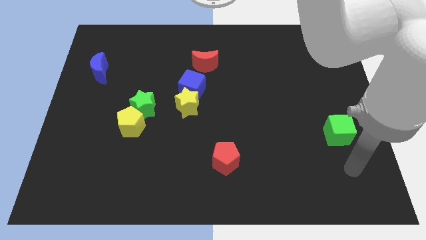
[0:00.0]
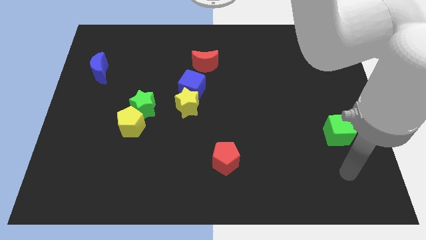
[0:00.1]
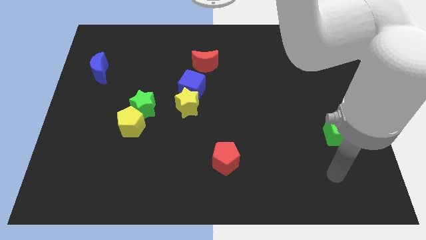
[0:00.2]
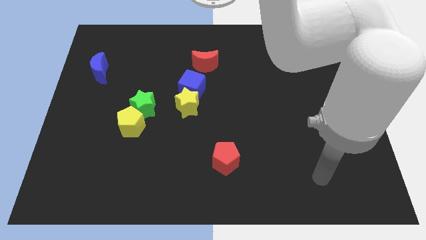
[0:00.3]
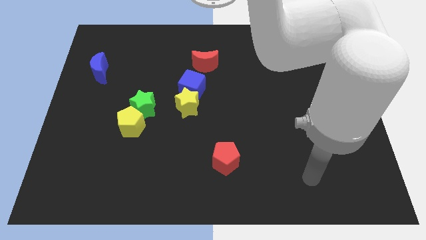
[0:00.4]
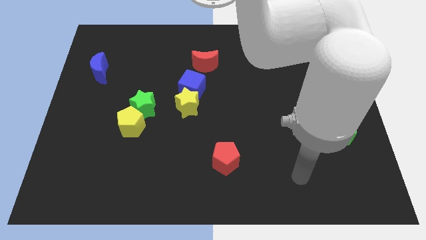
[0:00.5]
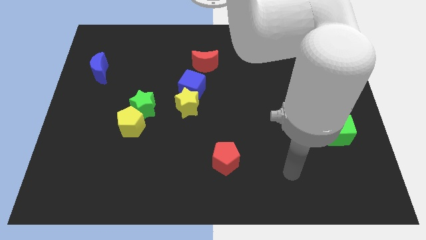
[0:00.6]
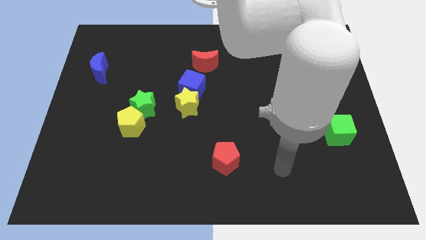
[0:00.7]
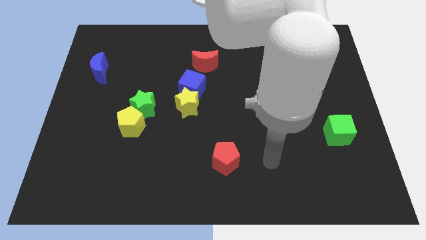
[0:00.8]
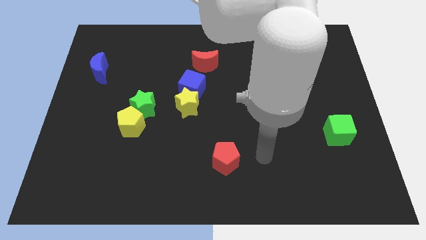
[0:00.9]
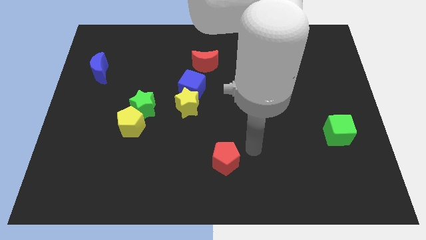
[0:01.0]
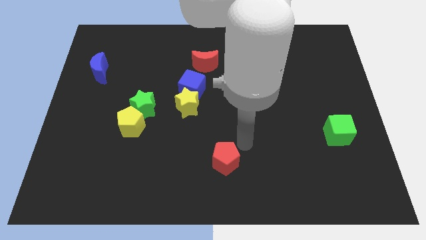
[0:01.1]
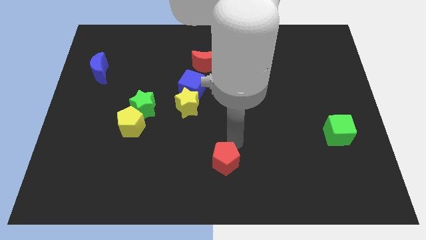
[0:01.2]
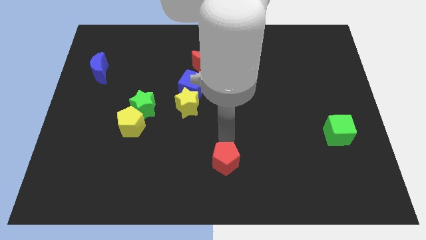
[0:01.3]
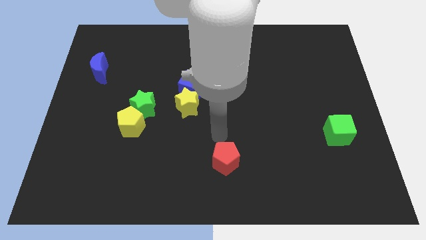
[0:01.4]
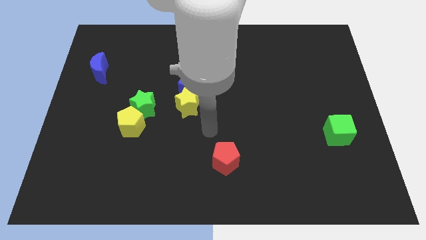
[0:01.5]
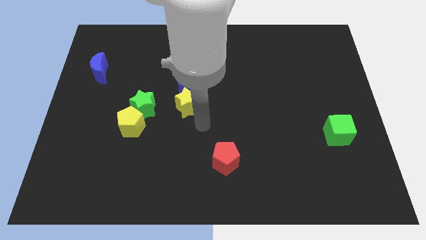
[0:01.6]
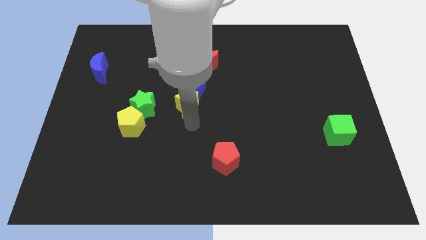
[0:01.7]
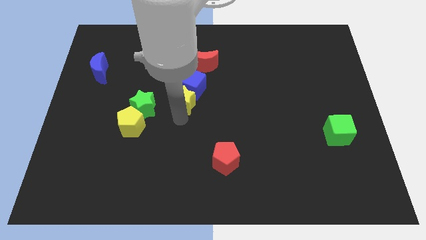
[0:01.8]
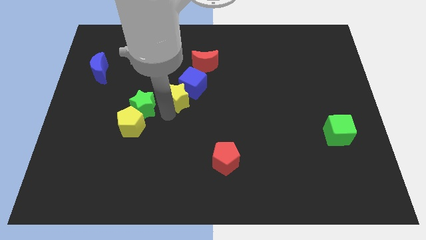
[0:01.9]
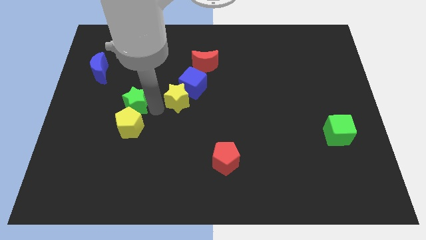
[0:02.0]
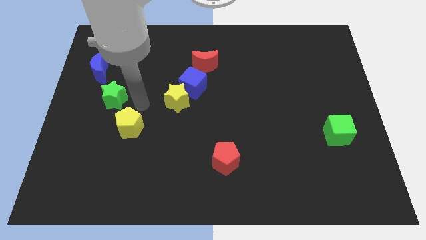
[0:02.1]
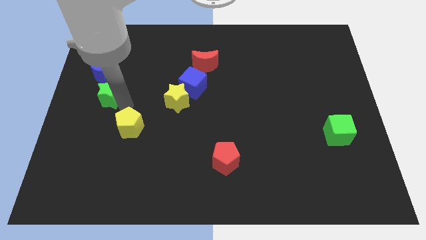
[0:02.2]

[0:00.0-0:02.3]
pull the yellow pentagon apart from the green star

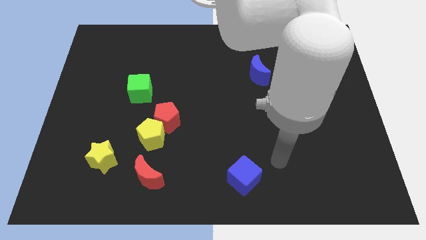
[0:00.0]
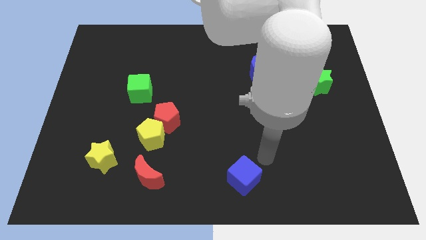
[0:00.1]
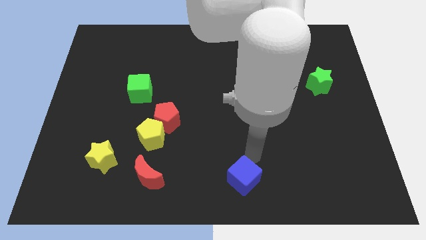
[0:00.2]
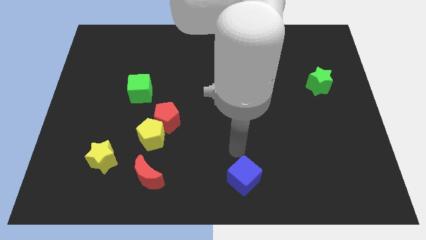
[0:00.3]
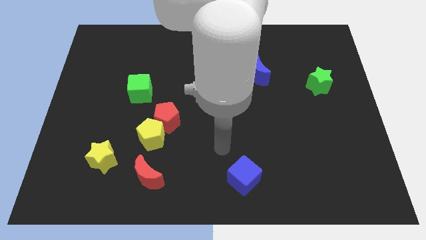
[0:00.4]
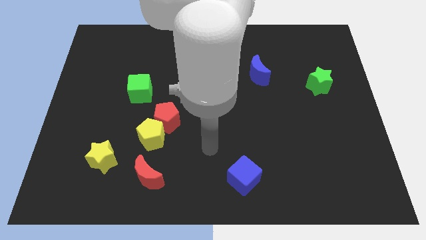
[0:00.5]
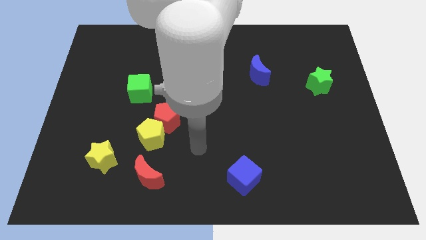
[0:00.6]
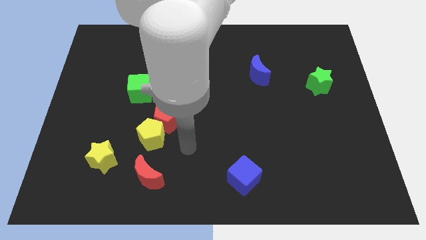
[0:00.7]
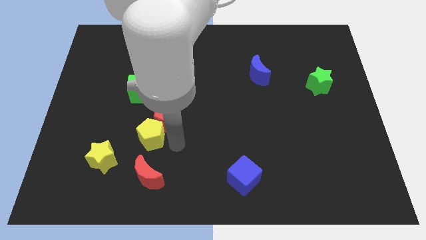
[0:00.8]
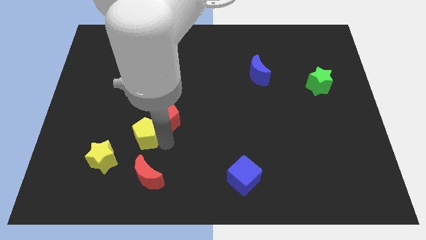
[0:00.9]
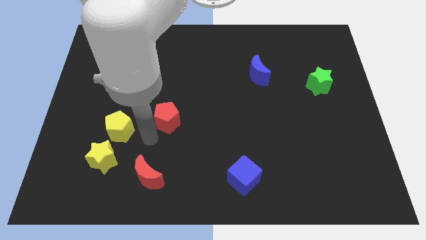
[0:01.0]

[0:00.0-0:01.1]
move the red pentagon away from the yellow pentagon

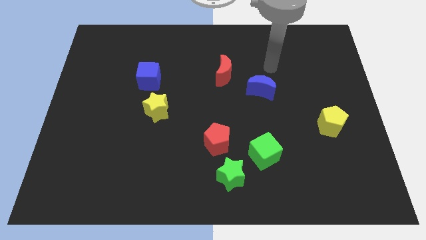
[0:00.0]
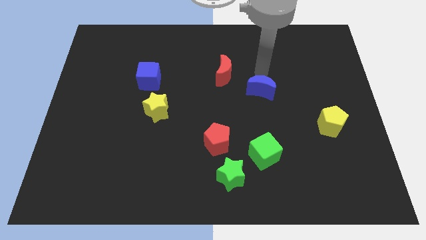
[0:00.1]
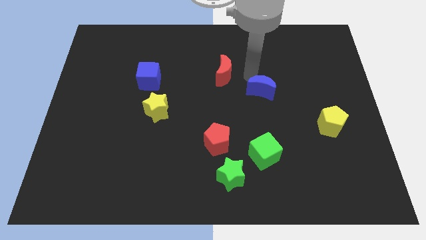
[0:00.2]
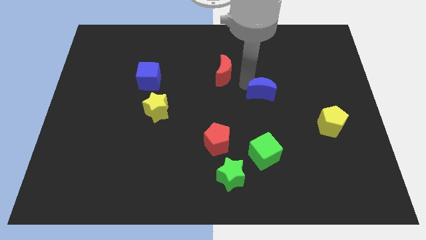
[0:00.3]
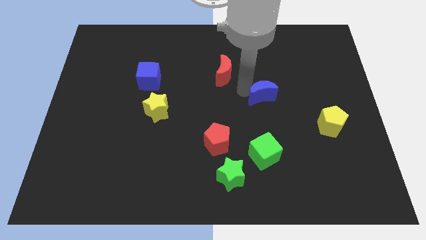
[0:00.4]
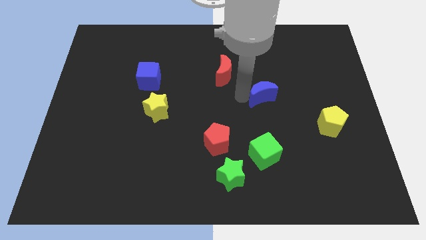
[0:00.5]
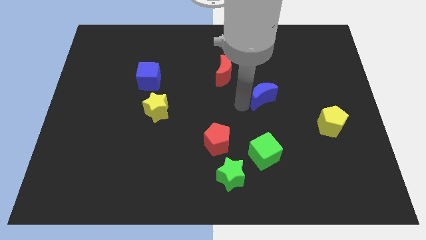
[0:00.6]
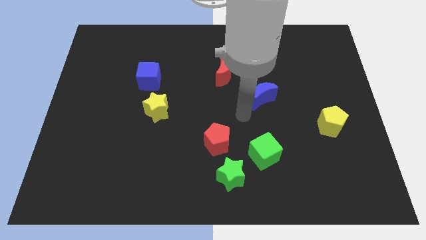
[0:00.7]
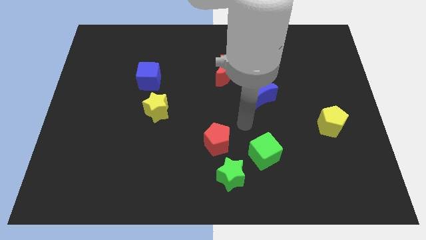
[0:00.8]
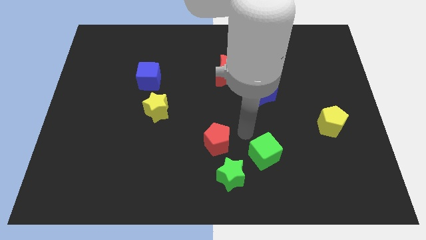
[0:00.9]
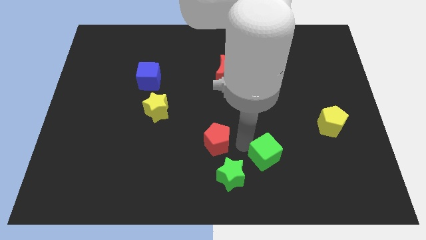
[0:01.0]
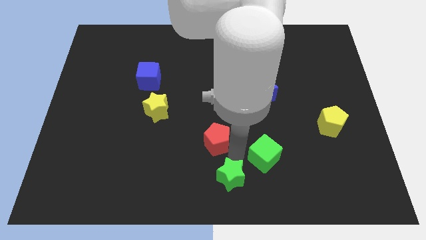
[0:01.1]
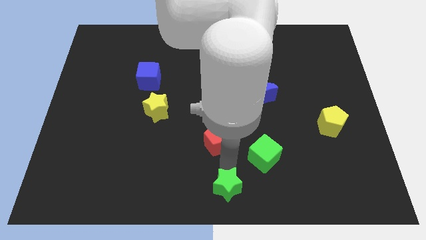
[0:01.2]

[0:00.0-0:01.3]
pull the red pentagon apart from the green star

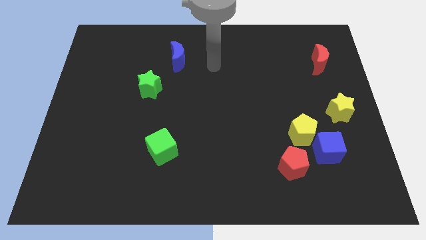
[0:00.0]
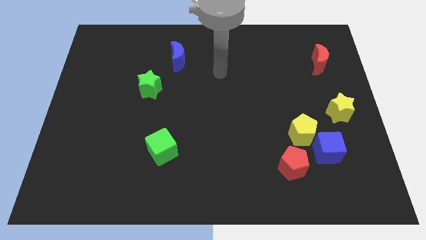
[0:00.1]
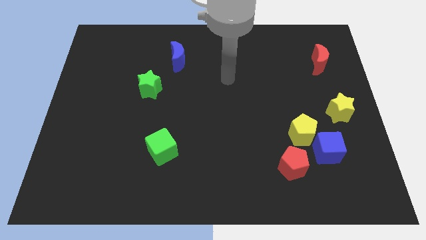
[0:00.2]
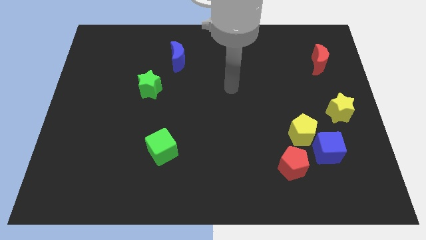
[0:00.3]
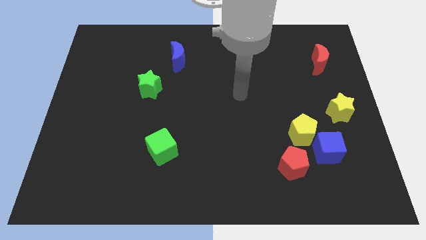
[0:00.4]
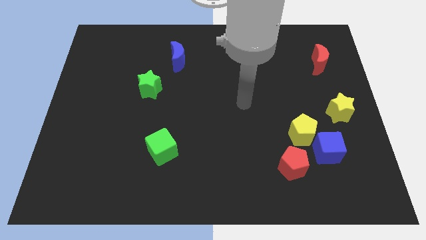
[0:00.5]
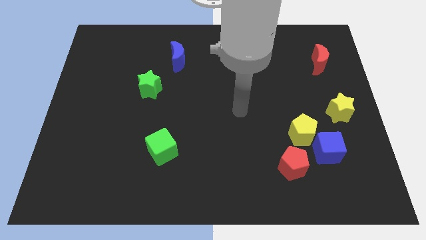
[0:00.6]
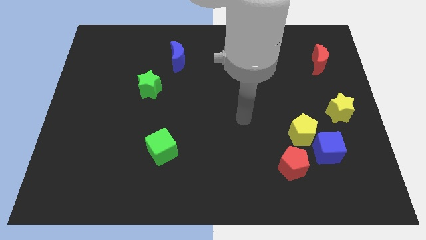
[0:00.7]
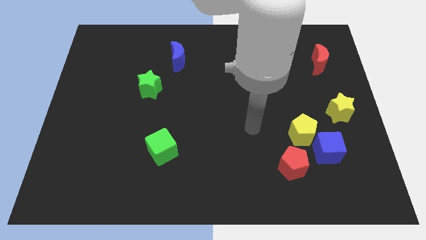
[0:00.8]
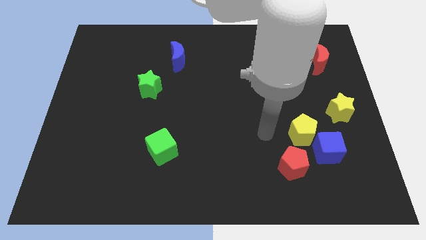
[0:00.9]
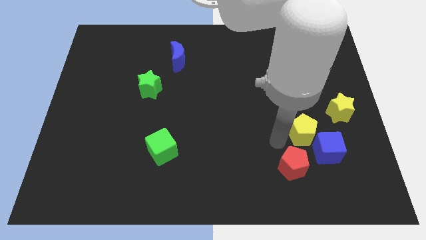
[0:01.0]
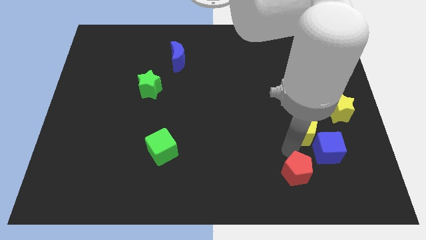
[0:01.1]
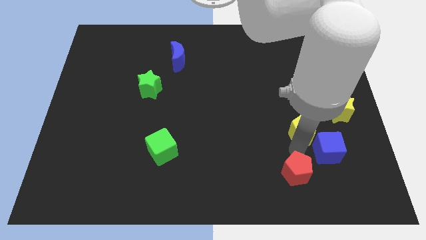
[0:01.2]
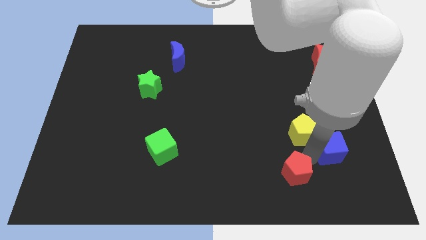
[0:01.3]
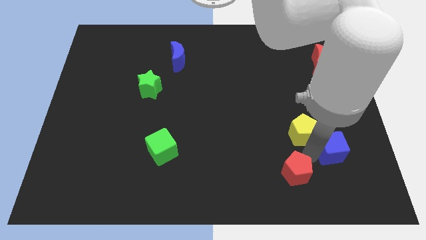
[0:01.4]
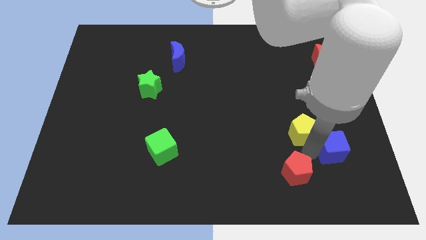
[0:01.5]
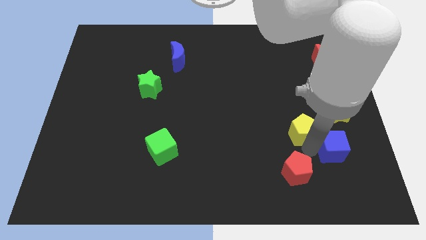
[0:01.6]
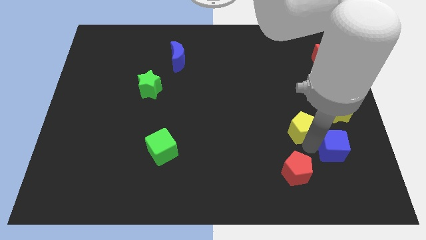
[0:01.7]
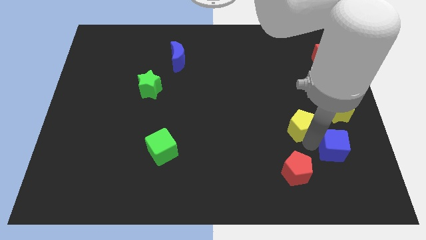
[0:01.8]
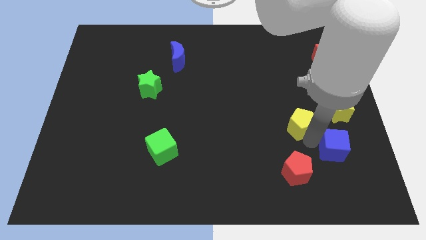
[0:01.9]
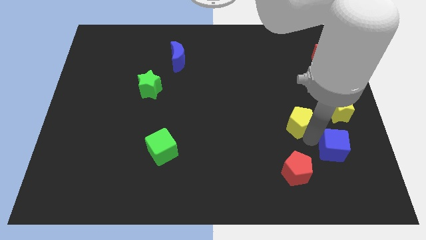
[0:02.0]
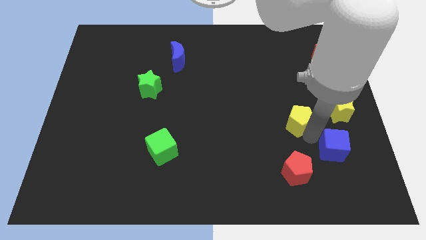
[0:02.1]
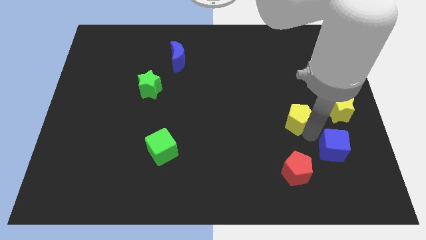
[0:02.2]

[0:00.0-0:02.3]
pull the yellow pentagon apart from the blue cube and red pentagon

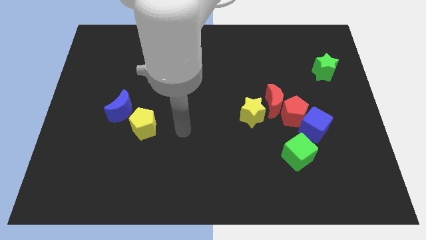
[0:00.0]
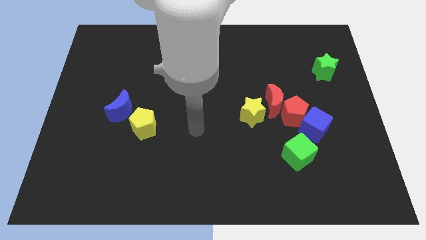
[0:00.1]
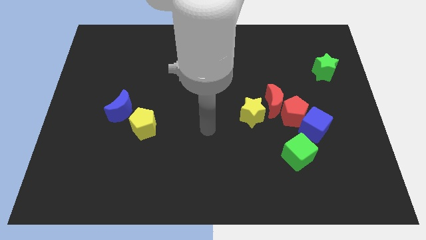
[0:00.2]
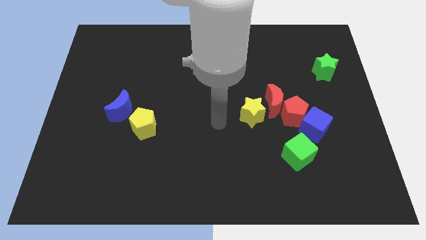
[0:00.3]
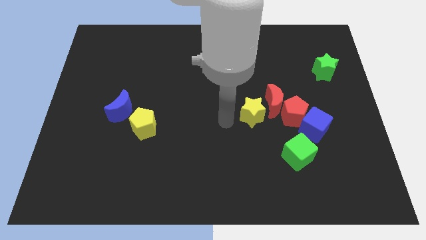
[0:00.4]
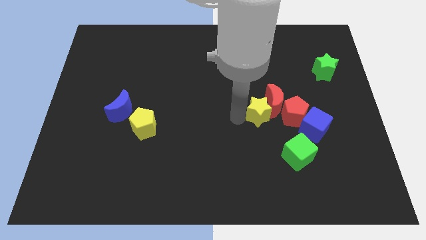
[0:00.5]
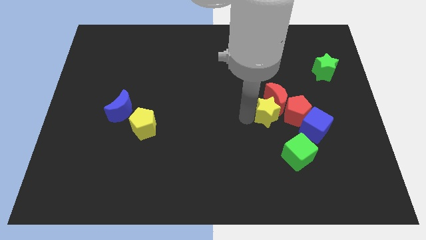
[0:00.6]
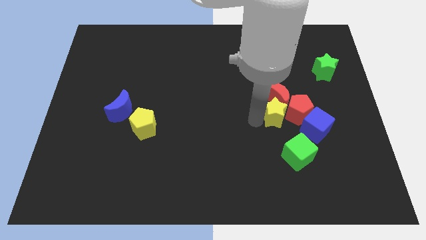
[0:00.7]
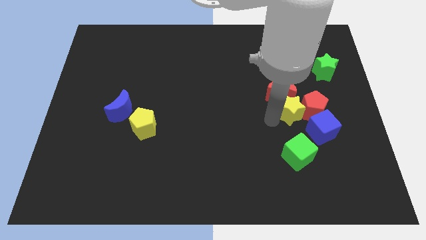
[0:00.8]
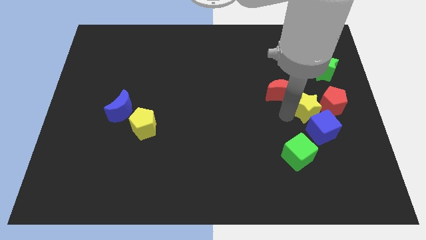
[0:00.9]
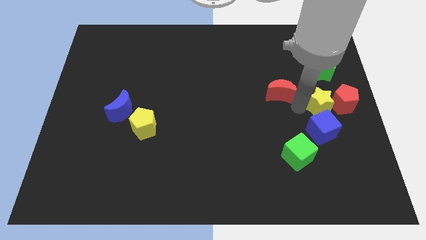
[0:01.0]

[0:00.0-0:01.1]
separate the red moon from the red pentagon and yellow star

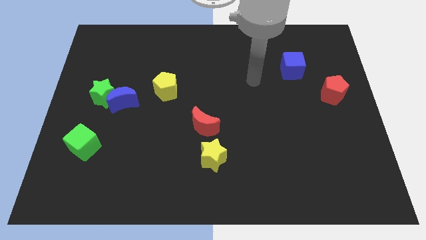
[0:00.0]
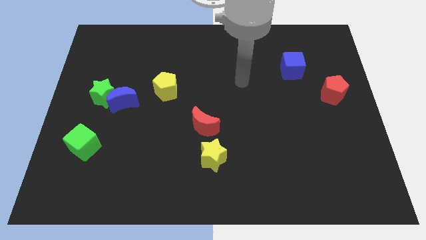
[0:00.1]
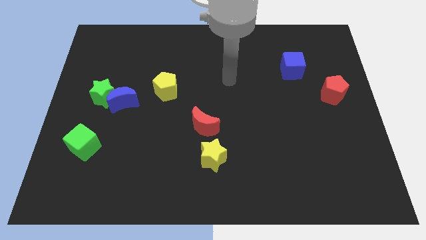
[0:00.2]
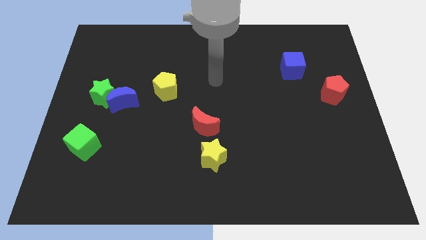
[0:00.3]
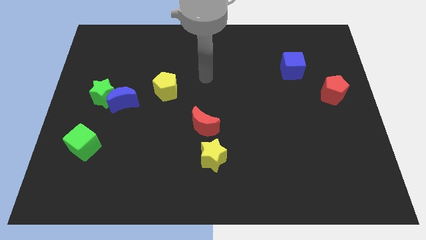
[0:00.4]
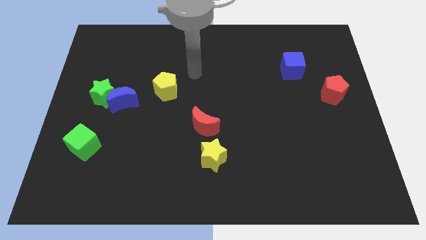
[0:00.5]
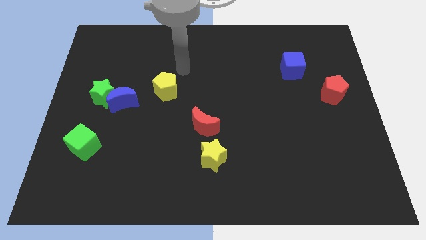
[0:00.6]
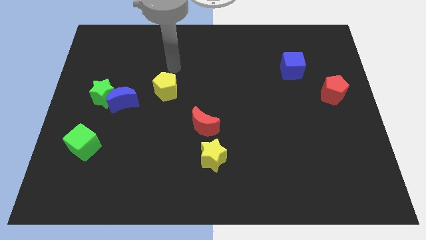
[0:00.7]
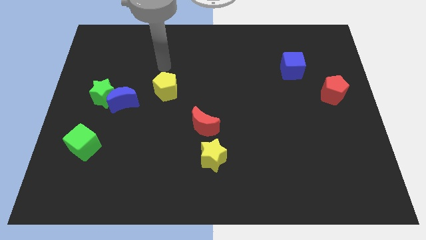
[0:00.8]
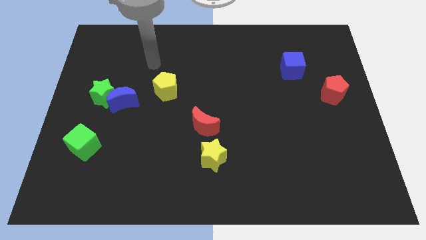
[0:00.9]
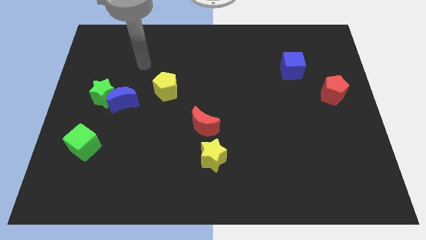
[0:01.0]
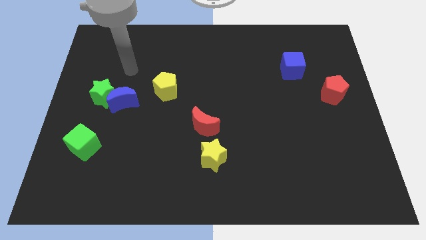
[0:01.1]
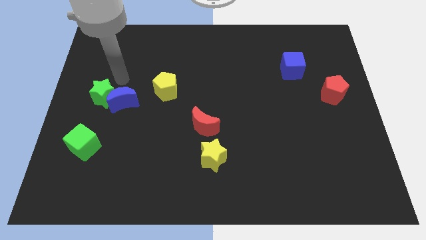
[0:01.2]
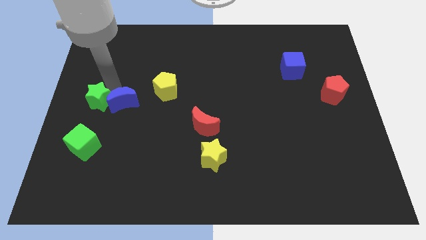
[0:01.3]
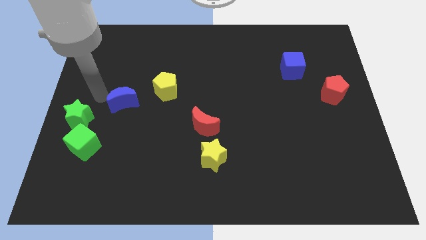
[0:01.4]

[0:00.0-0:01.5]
pull the blue moon apart from the green star
